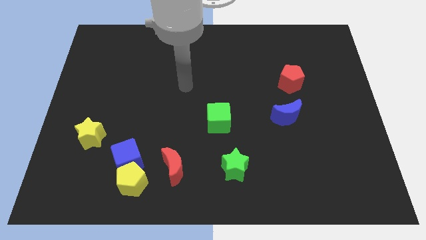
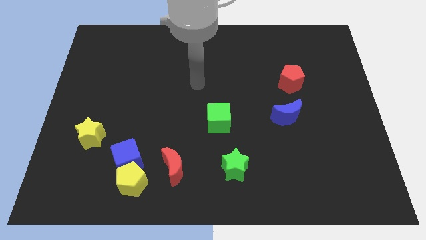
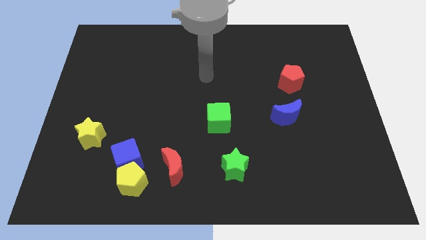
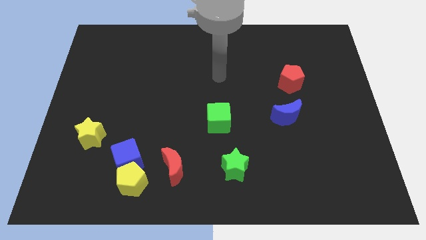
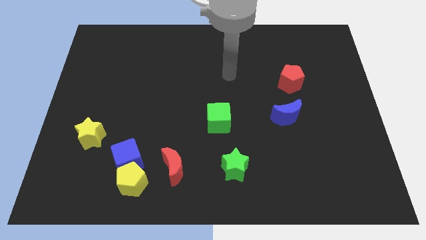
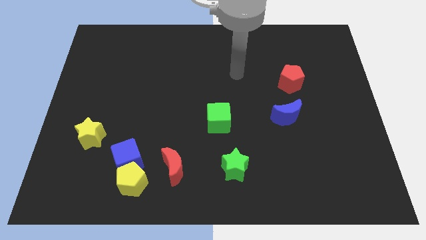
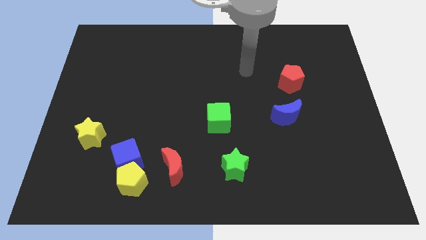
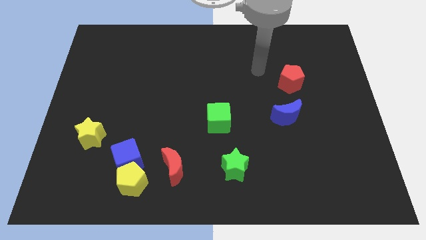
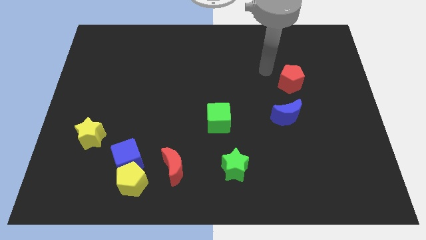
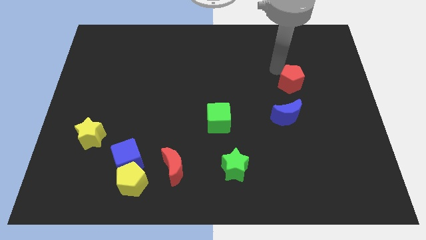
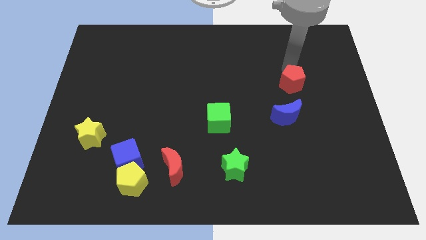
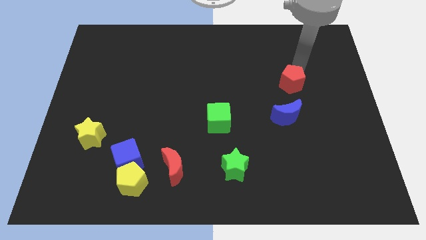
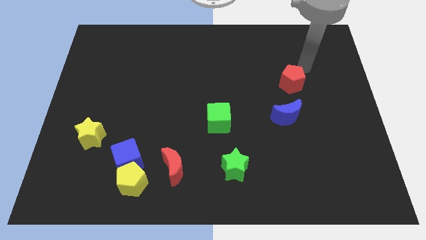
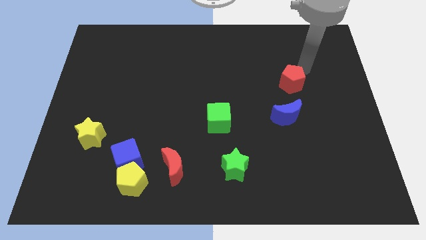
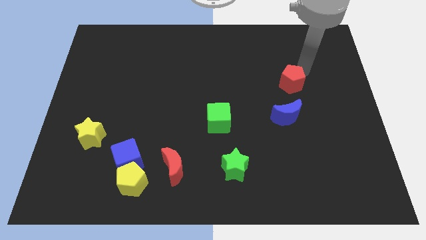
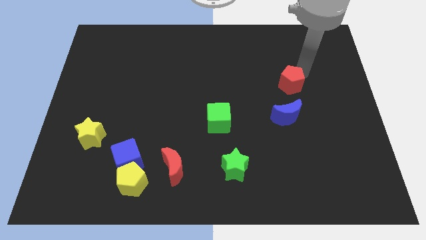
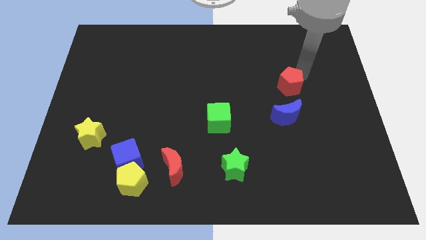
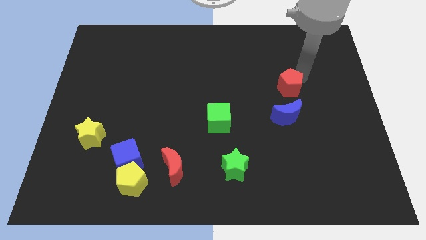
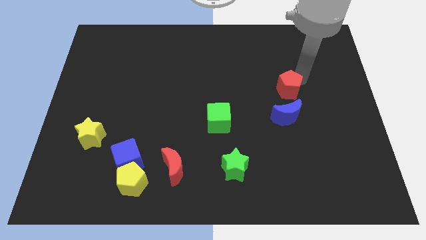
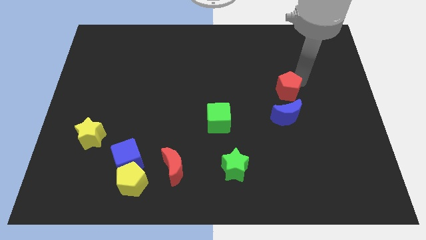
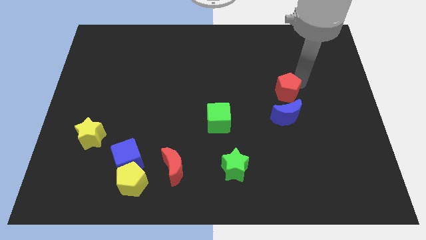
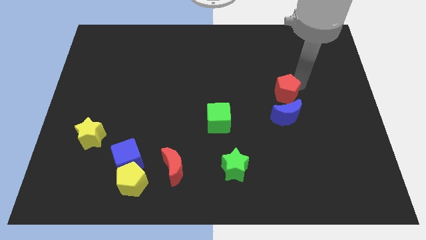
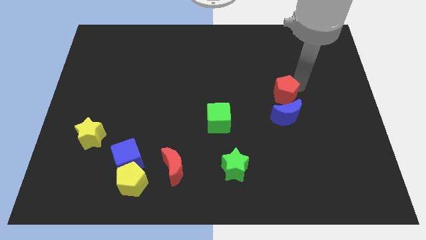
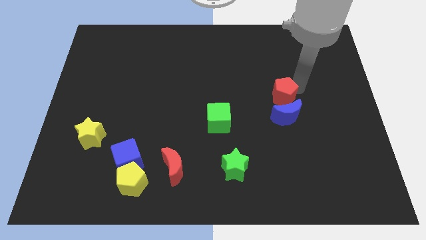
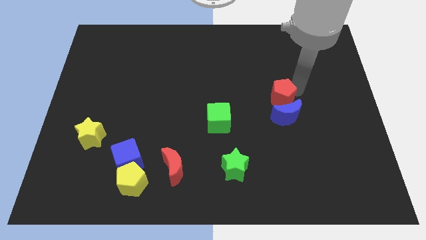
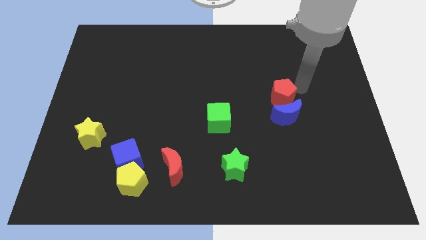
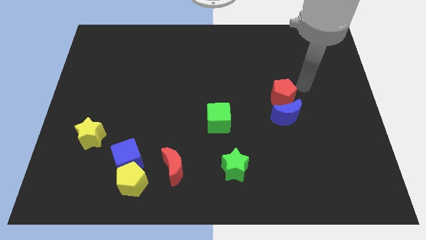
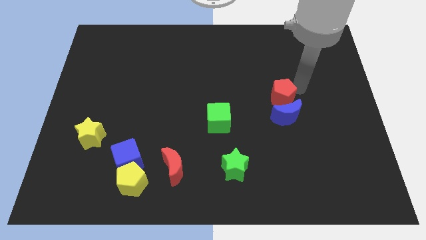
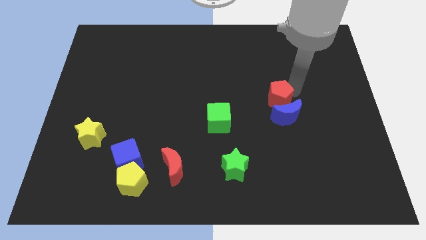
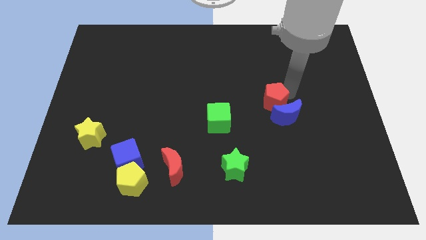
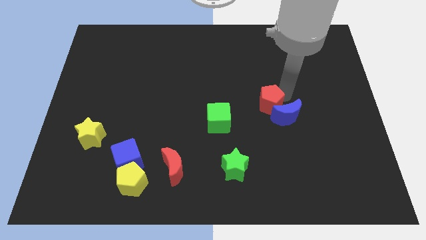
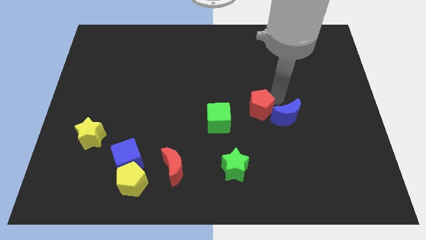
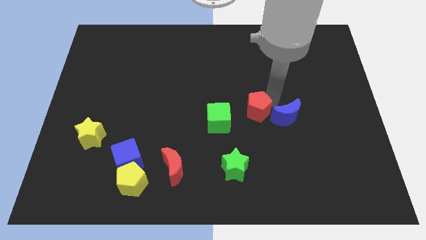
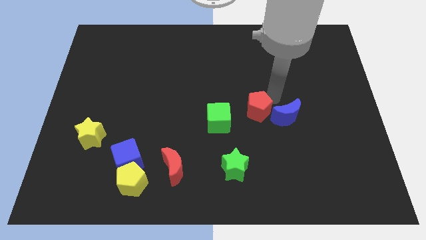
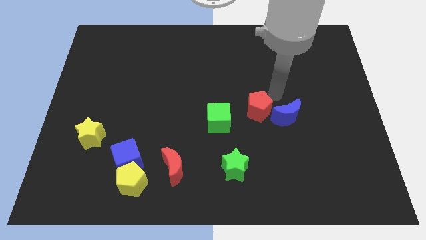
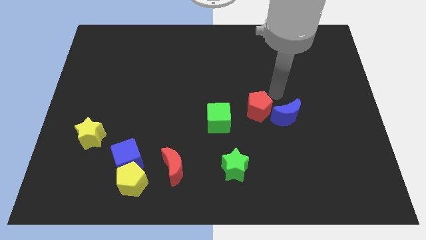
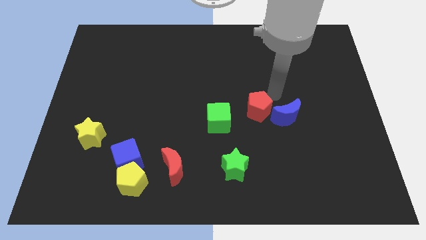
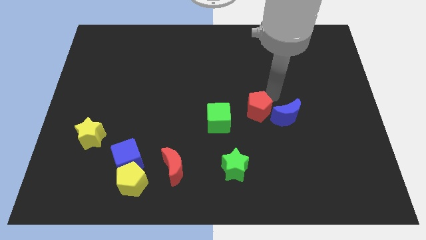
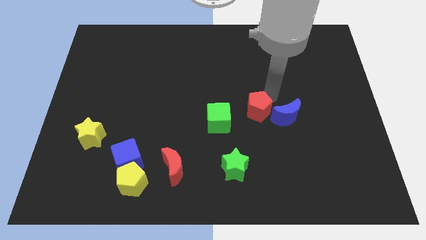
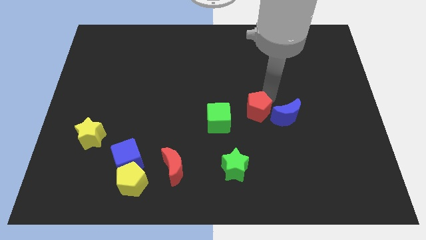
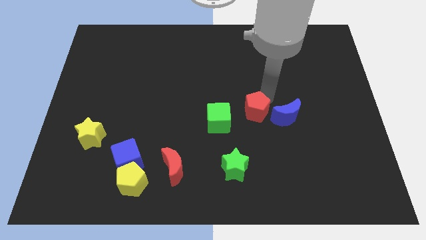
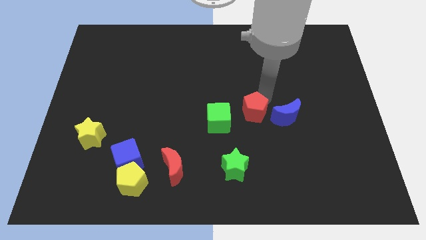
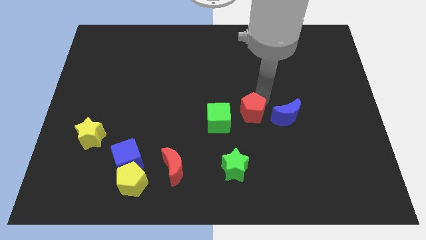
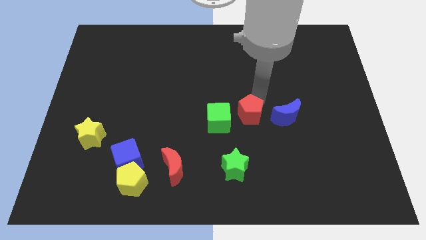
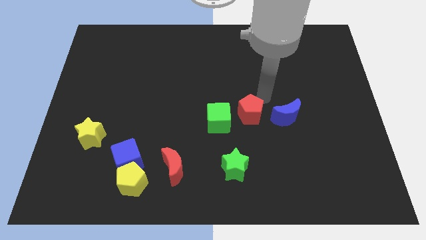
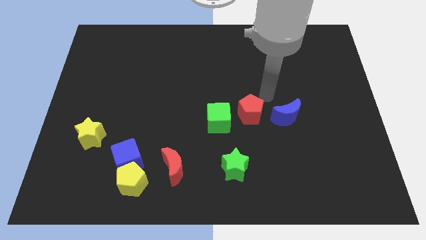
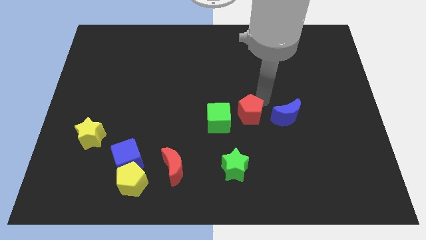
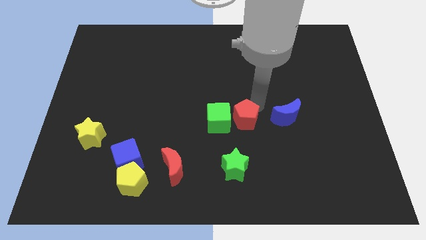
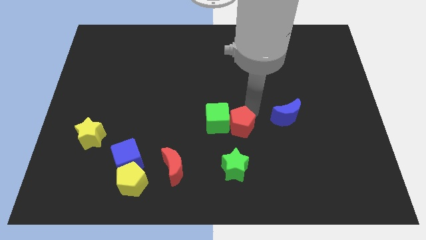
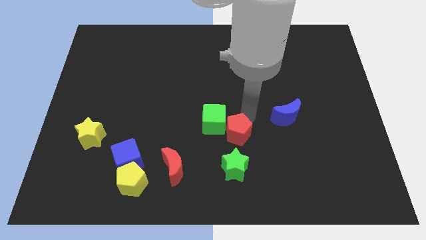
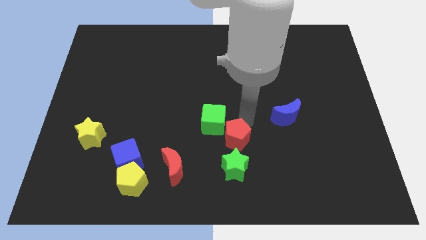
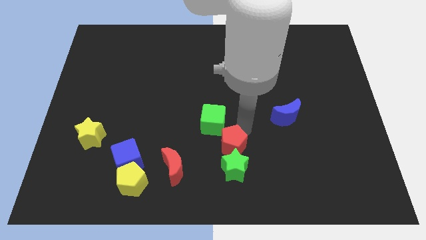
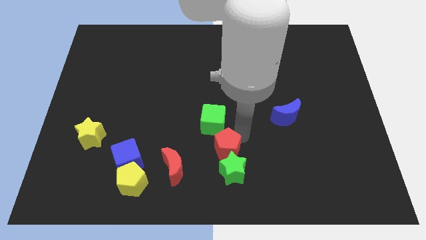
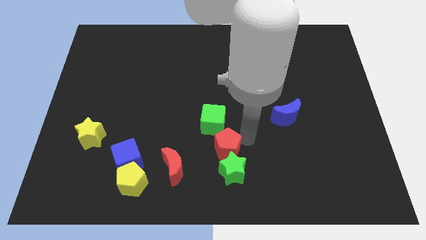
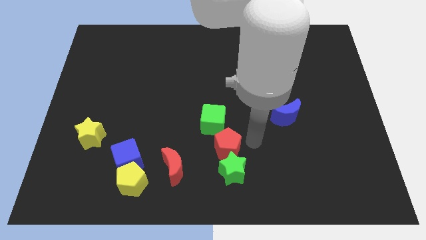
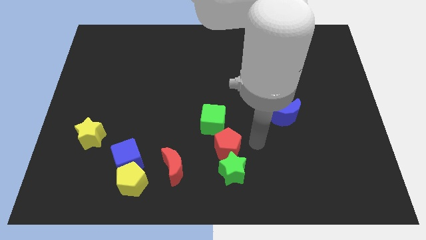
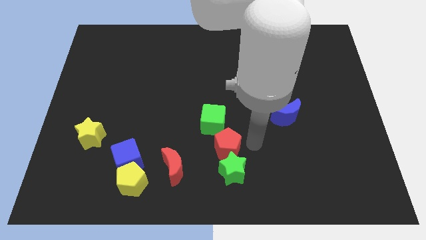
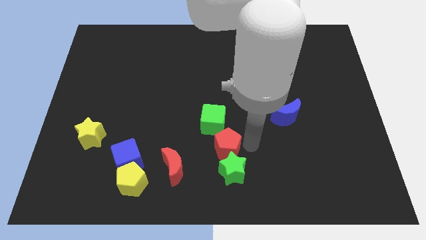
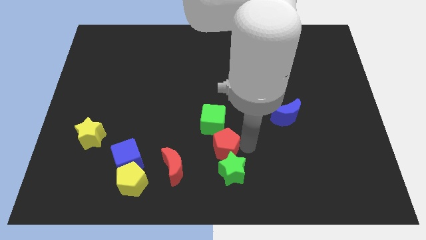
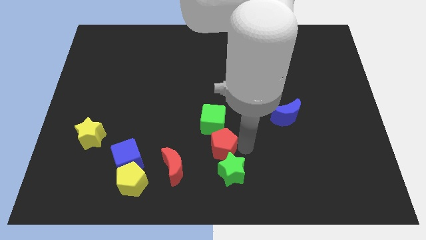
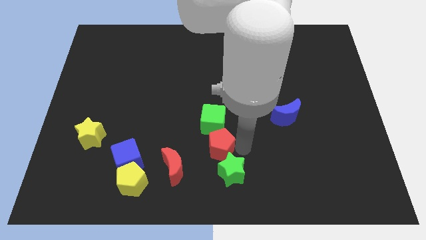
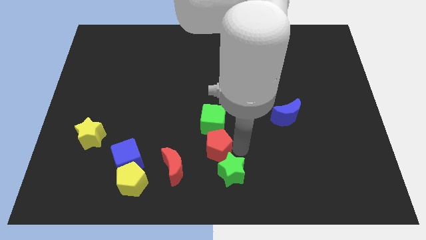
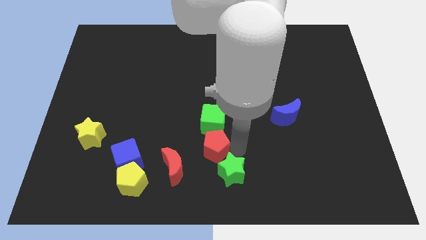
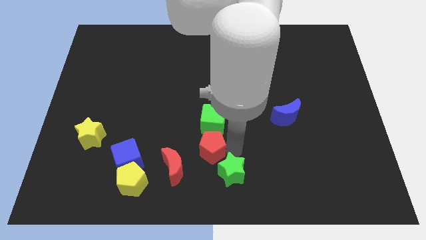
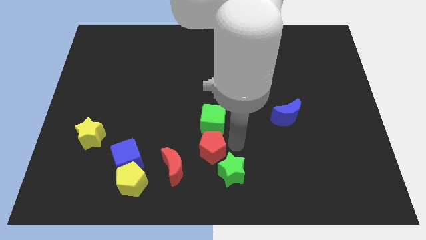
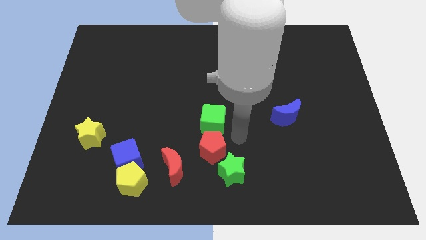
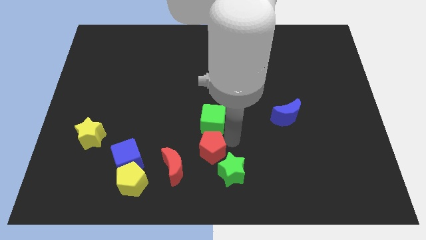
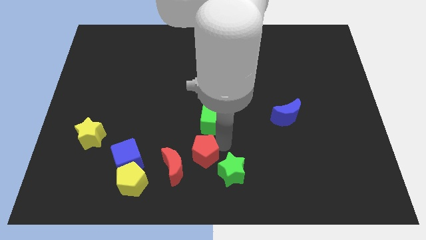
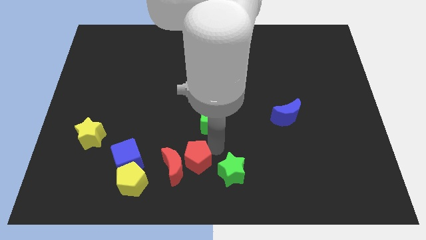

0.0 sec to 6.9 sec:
slide the red pentagon towards the red moon
